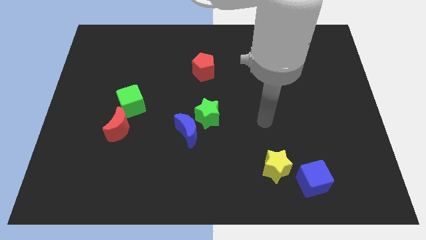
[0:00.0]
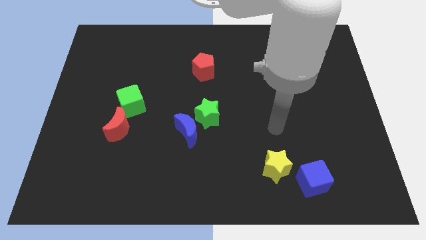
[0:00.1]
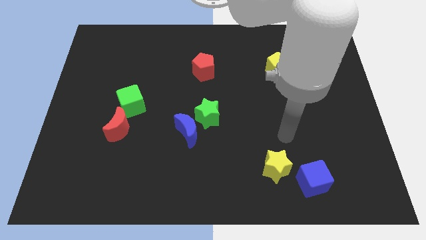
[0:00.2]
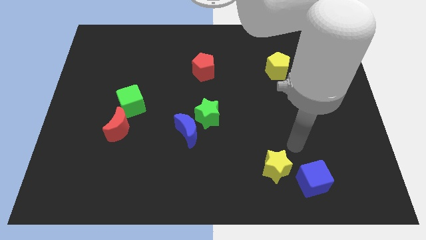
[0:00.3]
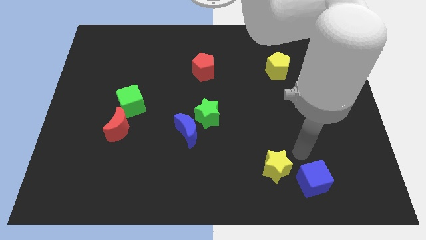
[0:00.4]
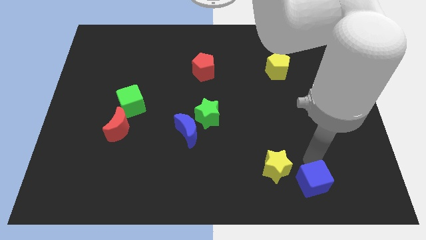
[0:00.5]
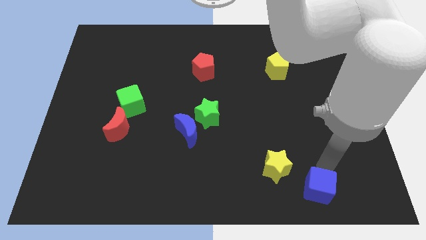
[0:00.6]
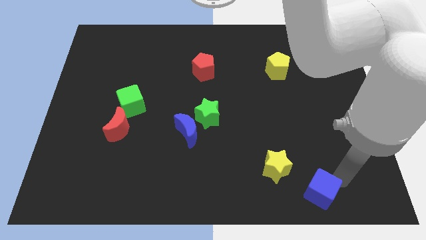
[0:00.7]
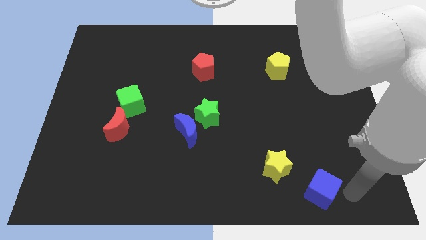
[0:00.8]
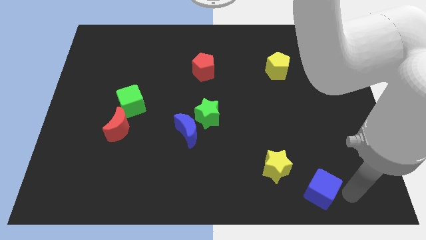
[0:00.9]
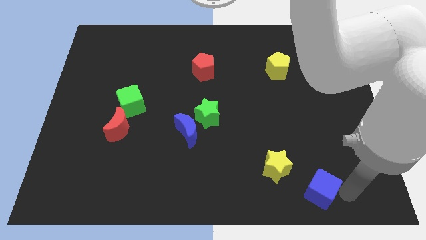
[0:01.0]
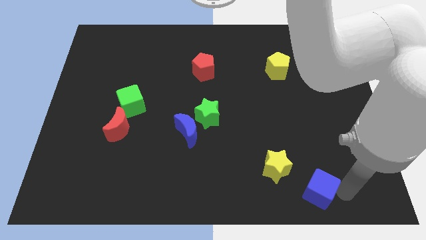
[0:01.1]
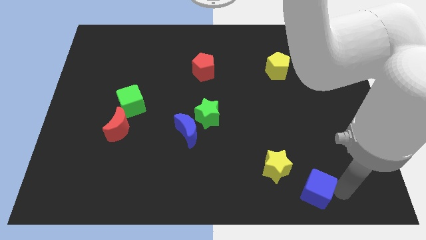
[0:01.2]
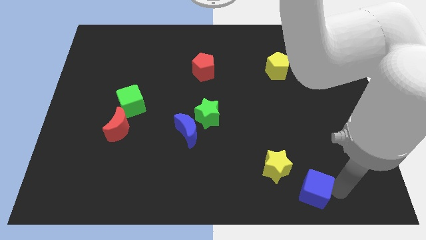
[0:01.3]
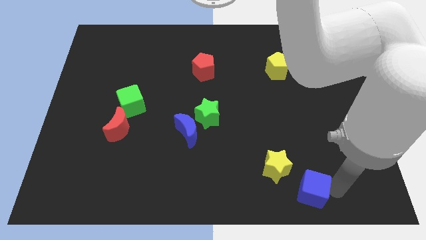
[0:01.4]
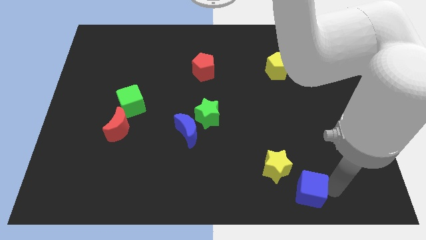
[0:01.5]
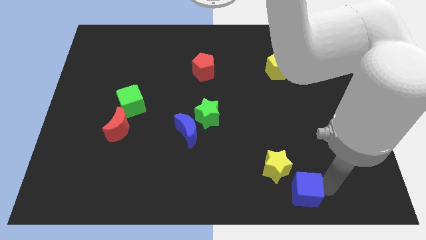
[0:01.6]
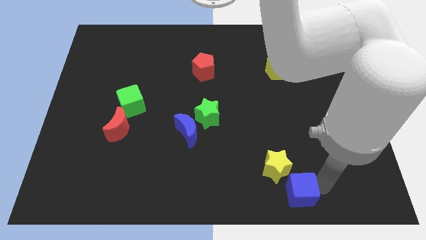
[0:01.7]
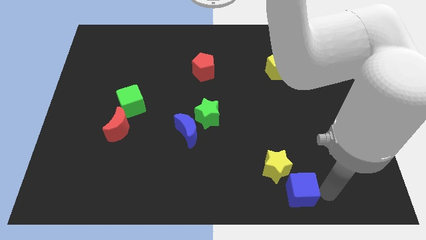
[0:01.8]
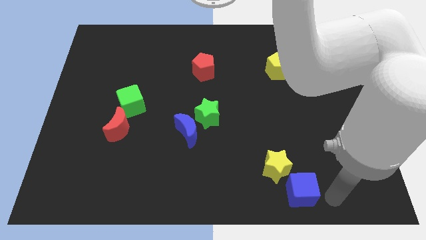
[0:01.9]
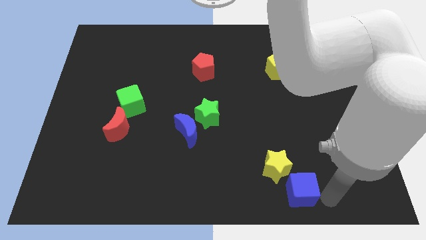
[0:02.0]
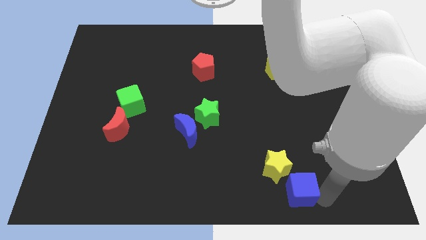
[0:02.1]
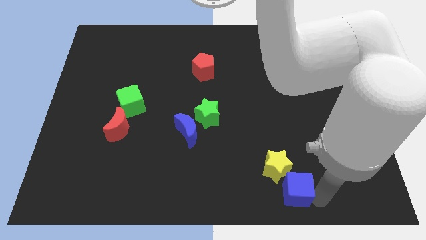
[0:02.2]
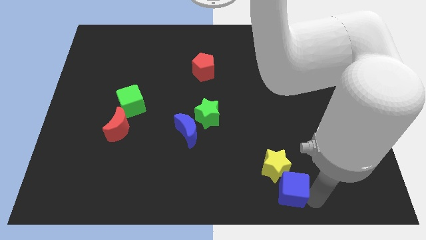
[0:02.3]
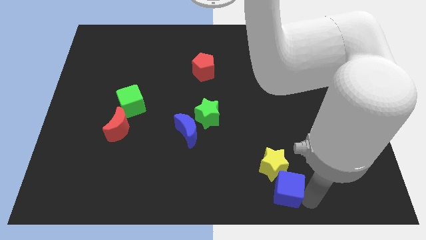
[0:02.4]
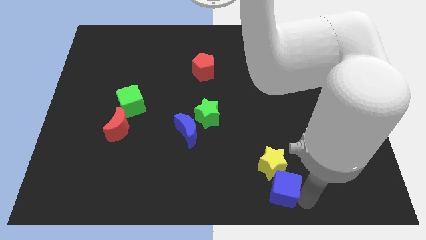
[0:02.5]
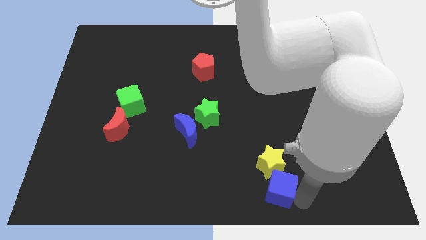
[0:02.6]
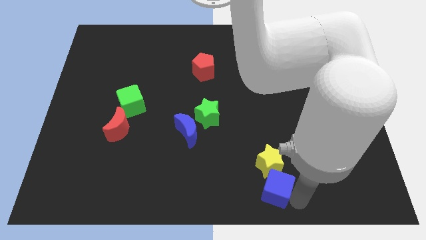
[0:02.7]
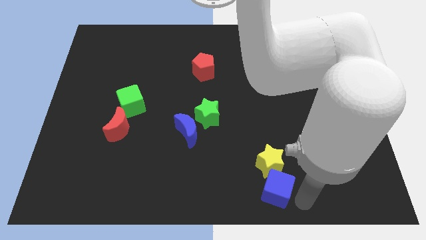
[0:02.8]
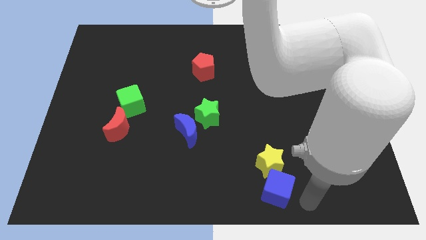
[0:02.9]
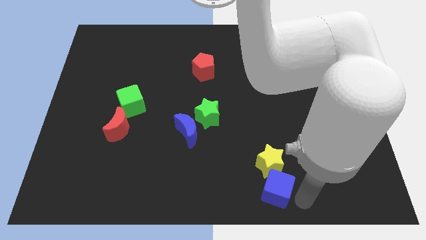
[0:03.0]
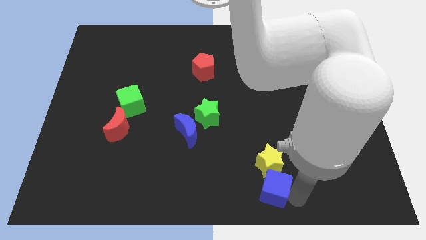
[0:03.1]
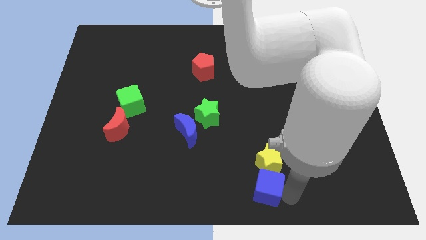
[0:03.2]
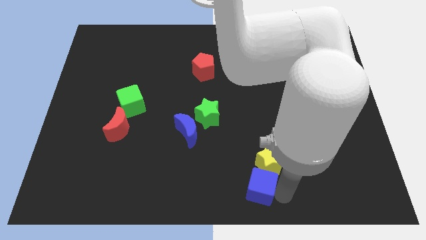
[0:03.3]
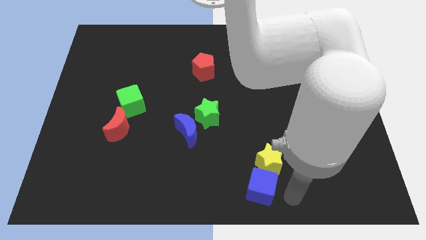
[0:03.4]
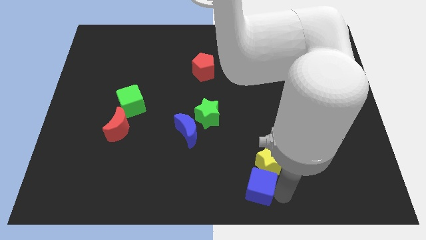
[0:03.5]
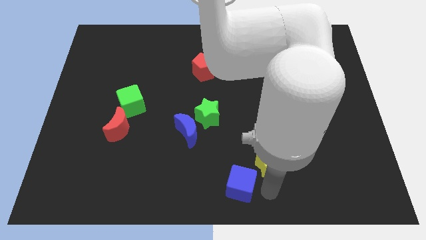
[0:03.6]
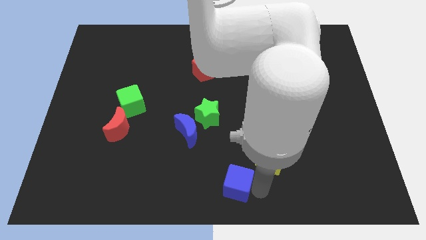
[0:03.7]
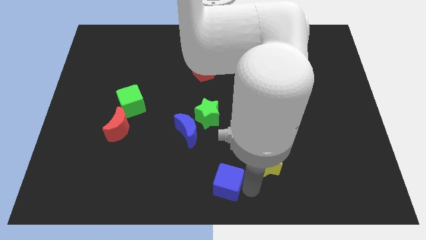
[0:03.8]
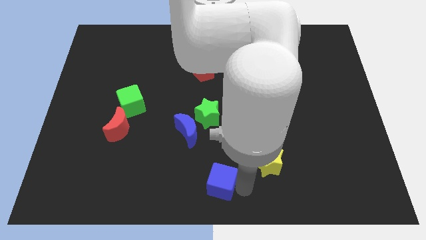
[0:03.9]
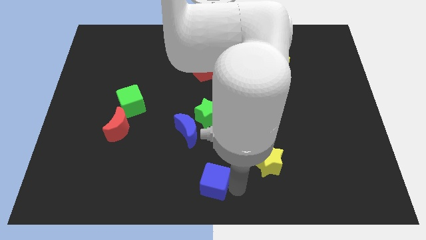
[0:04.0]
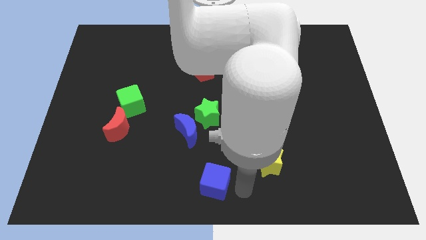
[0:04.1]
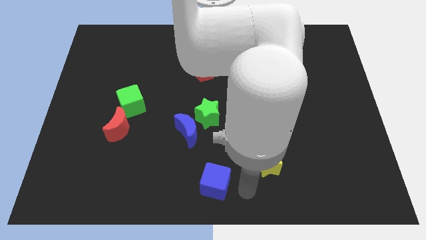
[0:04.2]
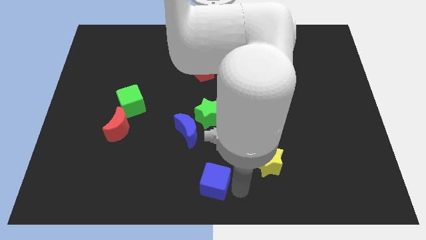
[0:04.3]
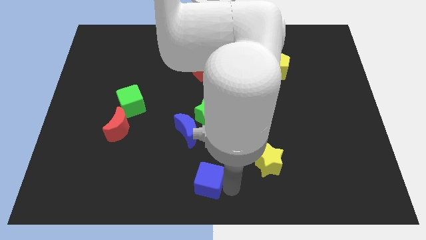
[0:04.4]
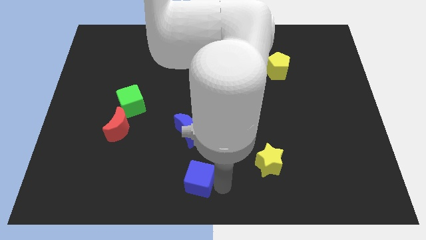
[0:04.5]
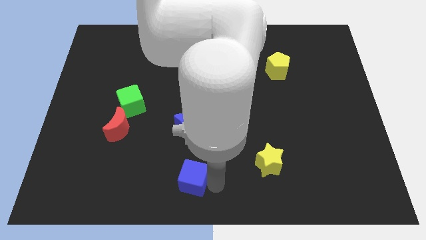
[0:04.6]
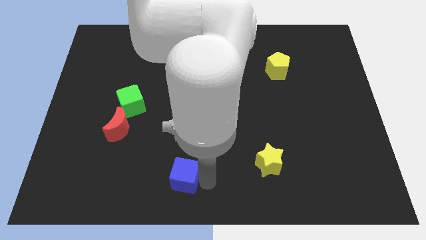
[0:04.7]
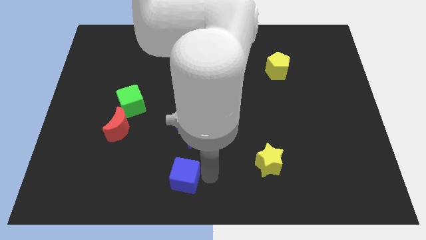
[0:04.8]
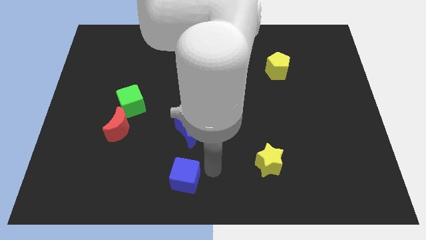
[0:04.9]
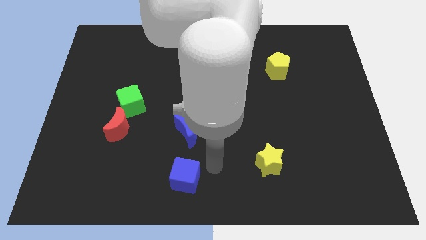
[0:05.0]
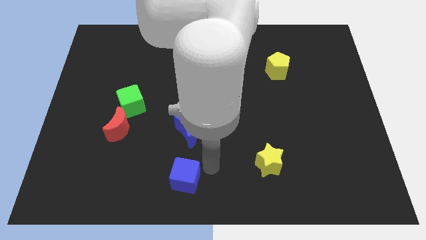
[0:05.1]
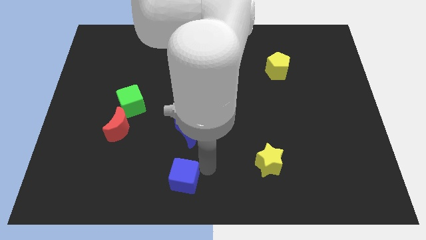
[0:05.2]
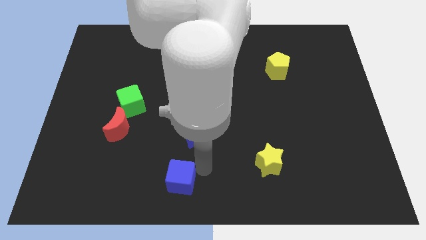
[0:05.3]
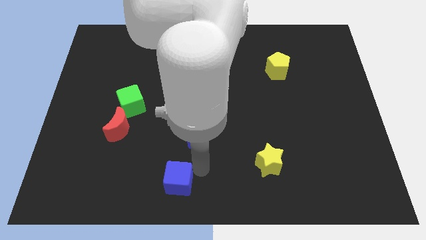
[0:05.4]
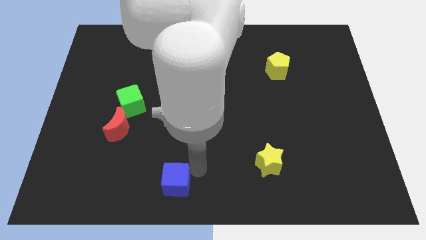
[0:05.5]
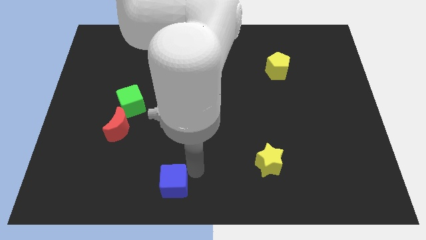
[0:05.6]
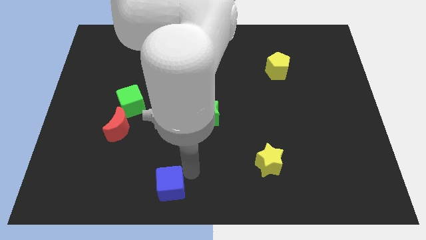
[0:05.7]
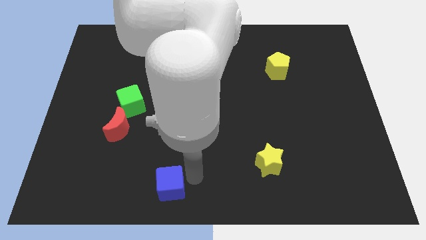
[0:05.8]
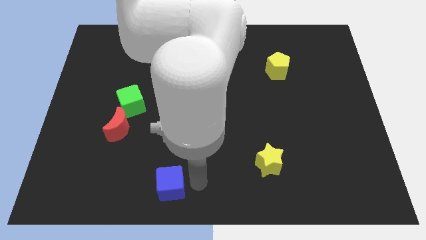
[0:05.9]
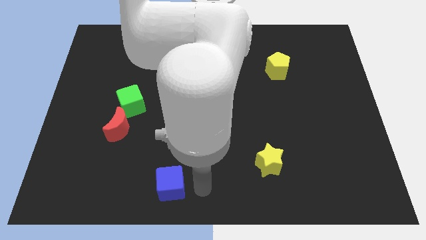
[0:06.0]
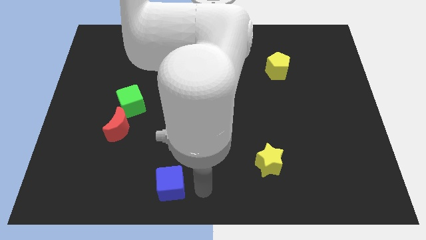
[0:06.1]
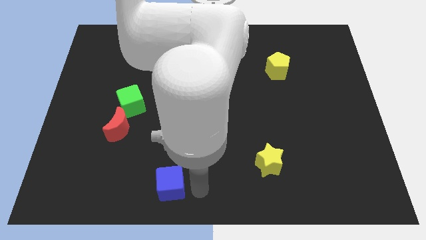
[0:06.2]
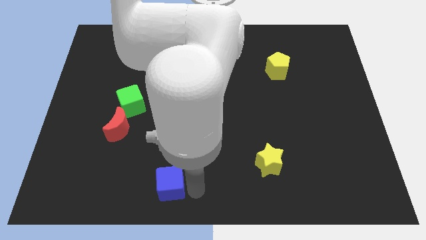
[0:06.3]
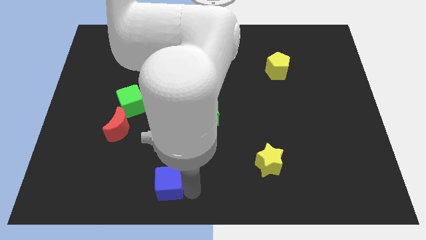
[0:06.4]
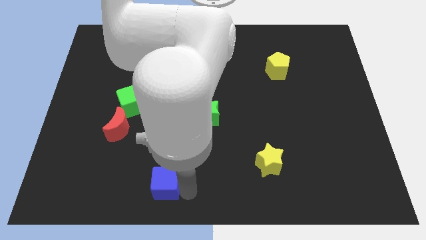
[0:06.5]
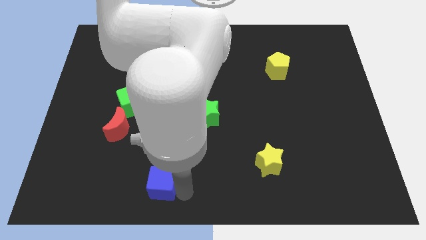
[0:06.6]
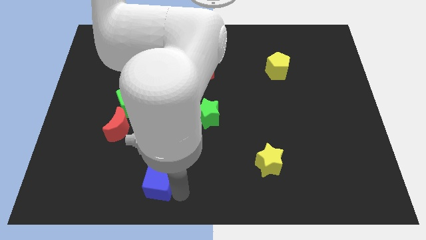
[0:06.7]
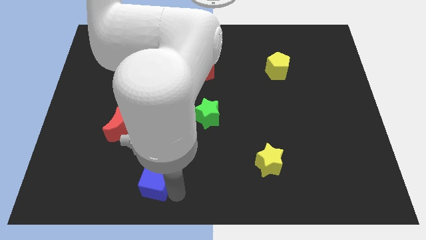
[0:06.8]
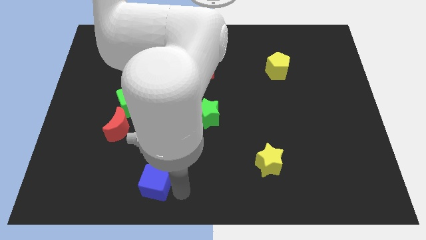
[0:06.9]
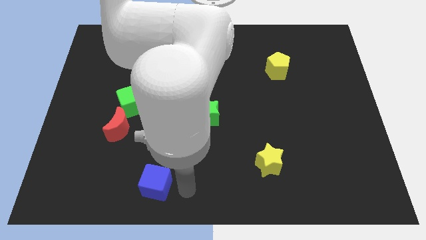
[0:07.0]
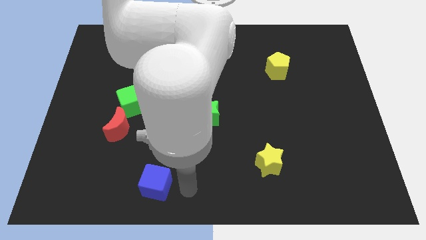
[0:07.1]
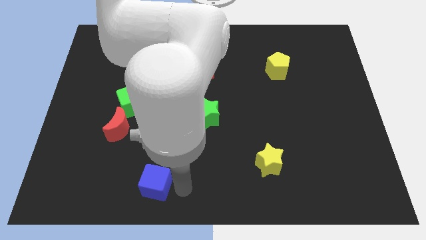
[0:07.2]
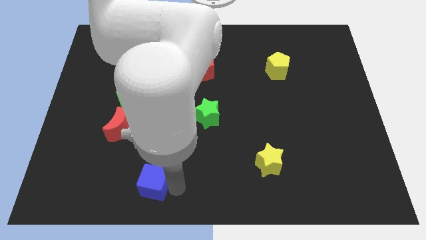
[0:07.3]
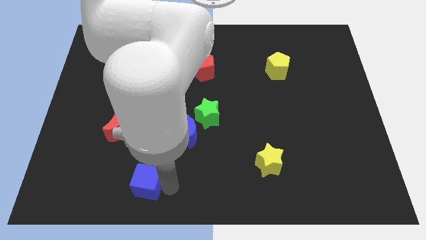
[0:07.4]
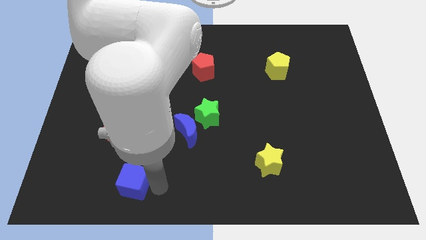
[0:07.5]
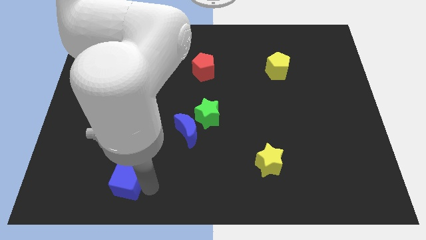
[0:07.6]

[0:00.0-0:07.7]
move the blue cube to the bottom side of the red moon

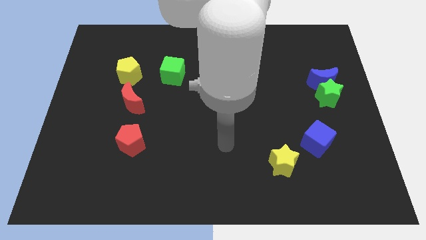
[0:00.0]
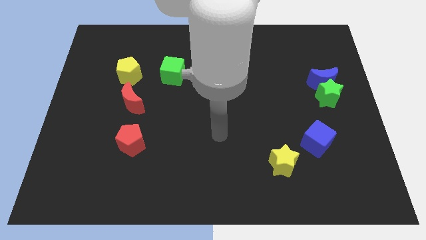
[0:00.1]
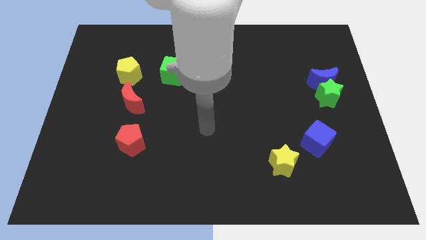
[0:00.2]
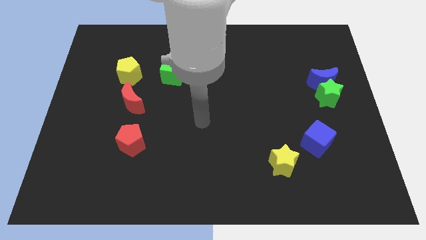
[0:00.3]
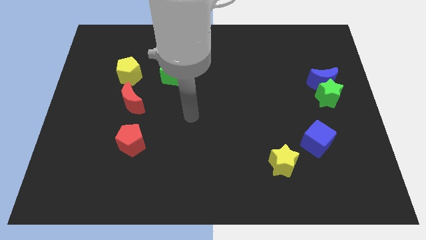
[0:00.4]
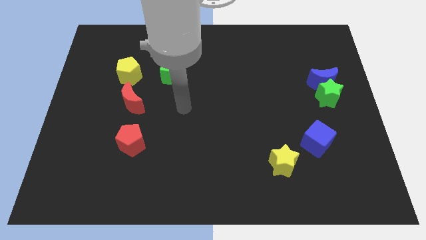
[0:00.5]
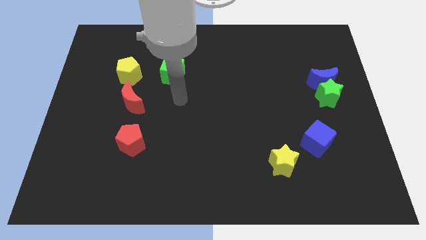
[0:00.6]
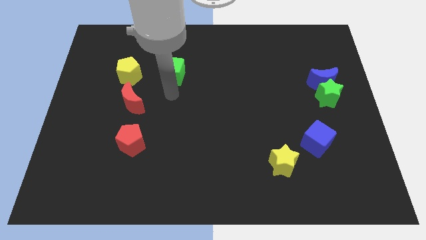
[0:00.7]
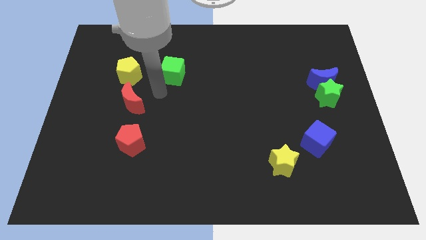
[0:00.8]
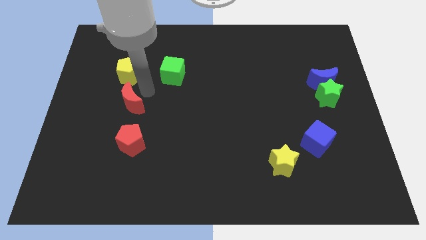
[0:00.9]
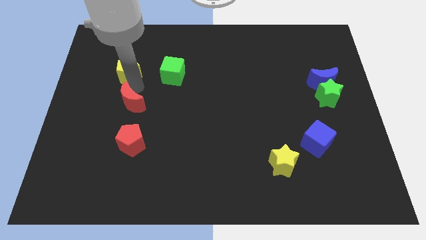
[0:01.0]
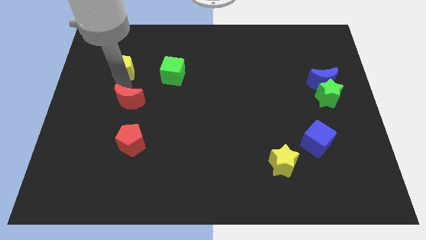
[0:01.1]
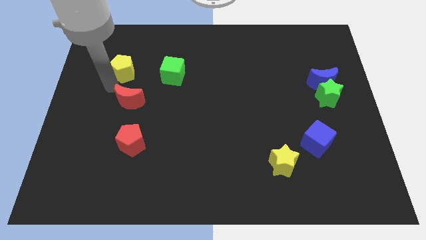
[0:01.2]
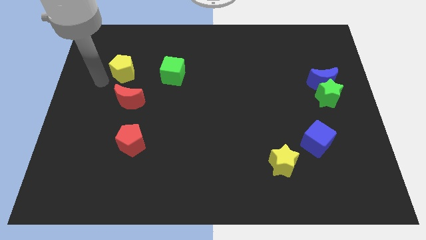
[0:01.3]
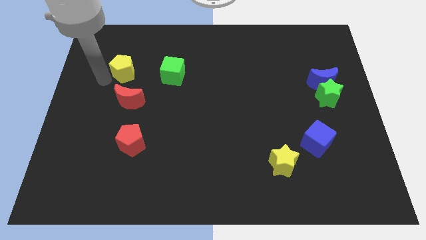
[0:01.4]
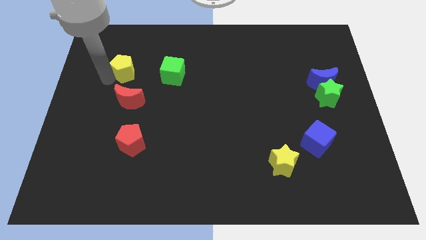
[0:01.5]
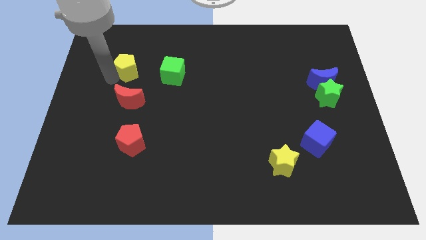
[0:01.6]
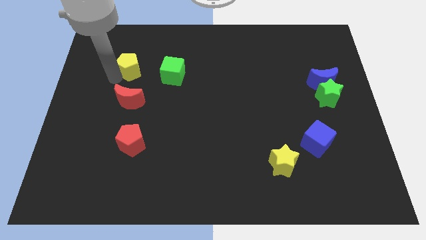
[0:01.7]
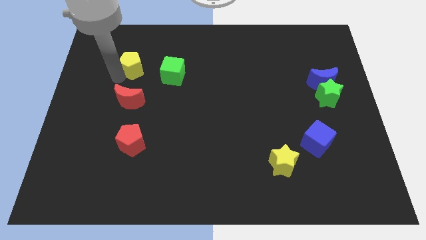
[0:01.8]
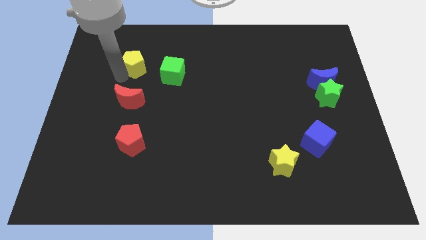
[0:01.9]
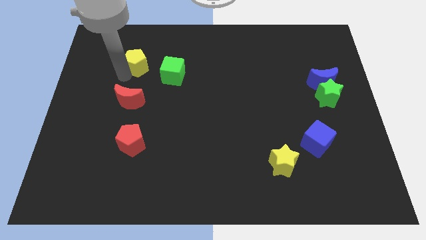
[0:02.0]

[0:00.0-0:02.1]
put the yellow pentagon to the top left of the green cube
